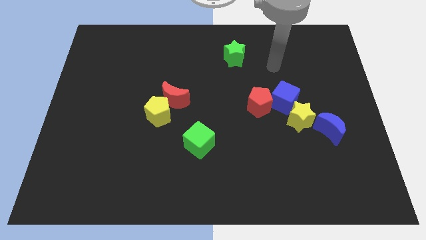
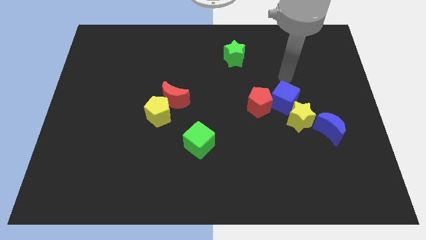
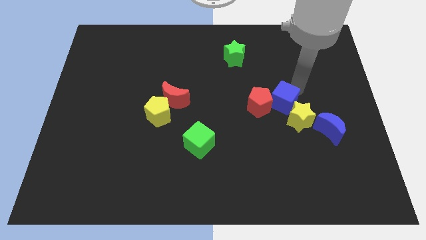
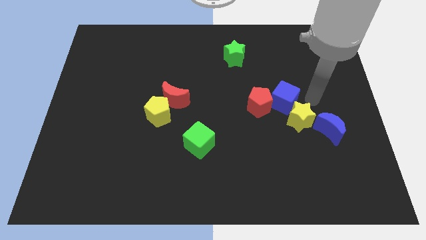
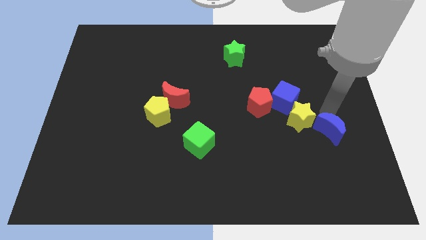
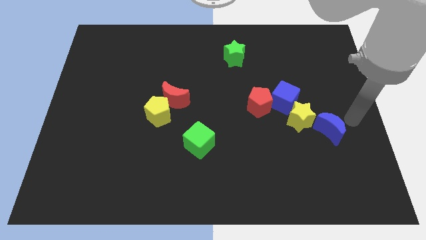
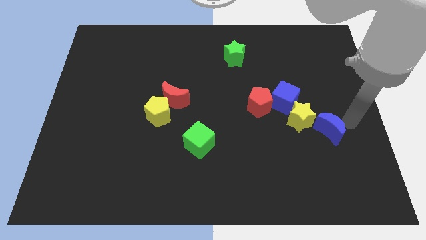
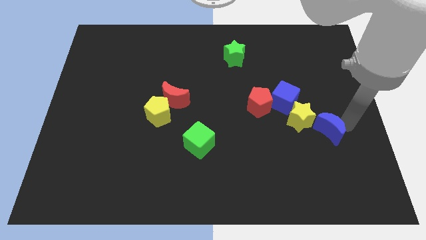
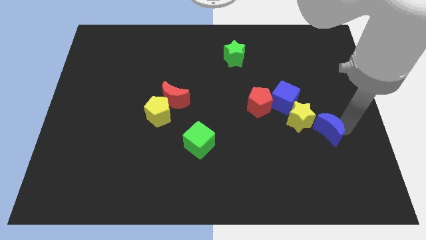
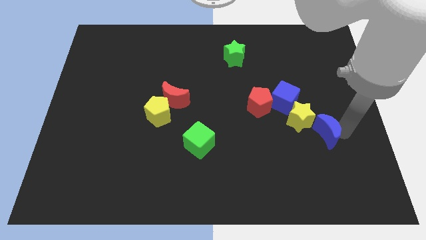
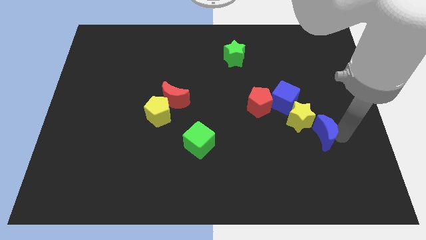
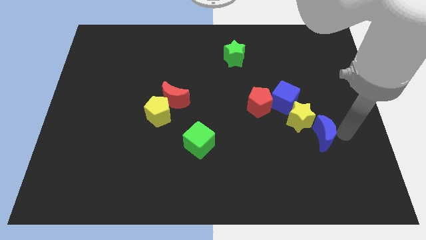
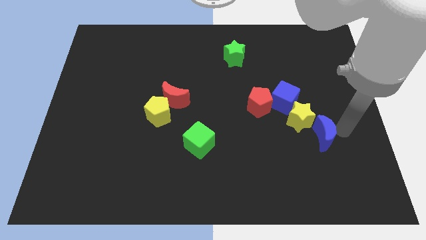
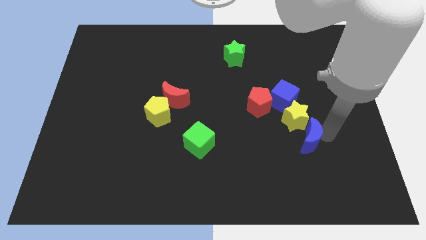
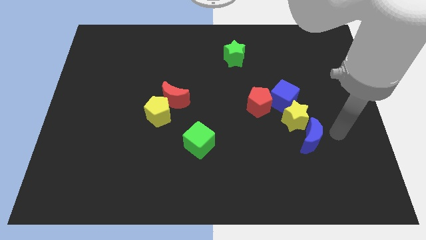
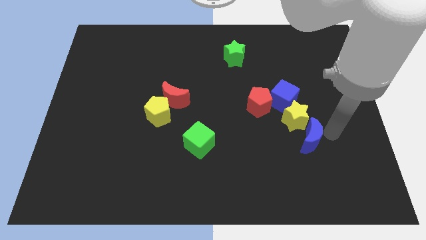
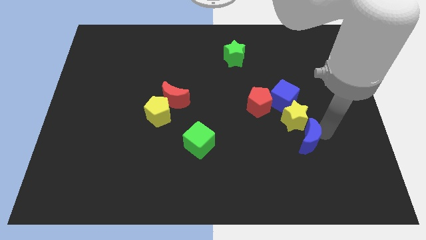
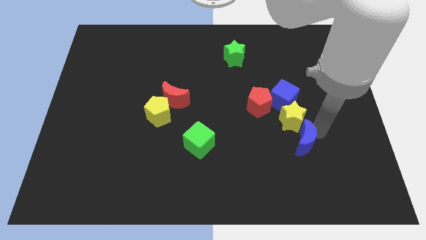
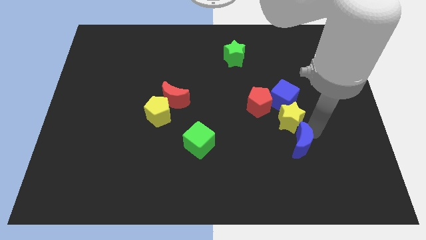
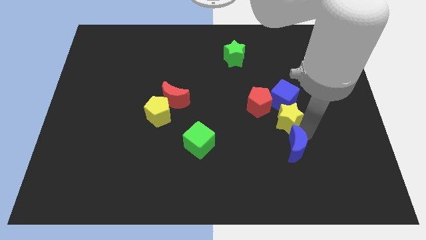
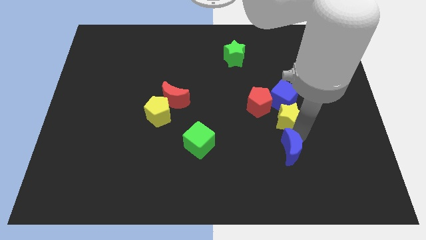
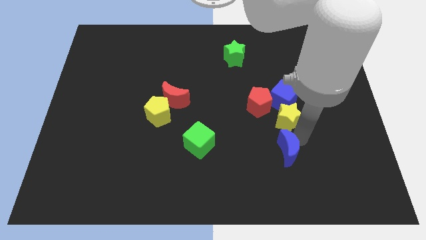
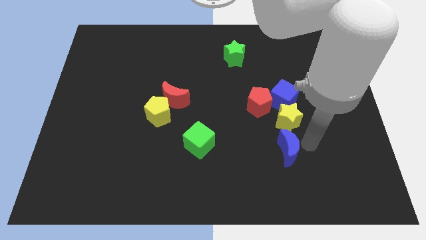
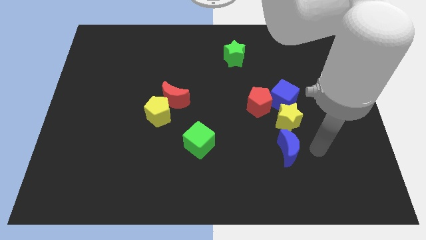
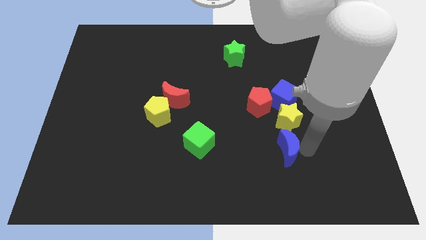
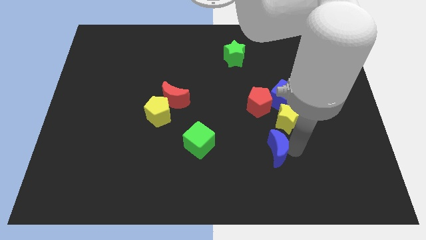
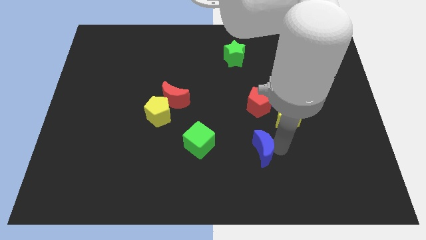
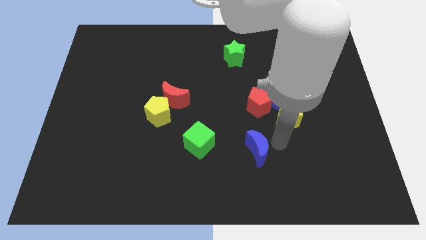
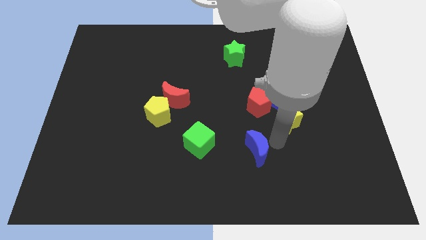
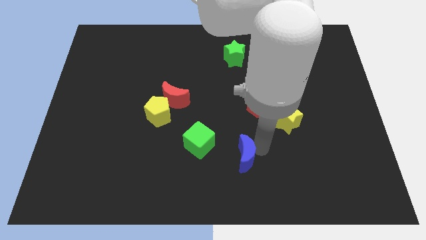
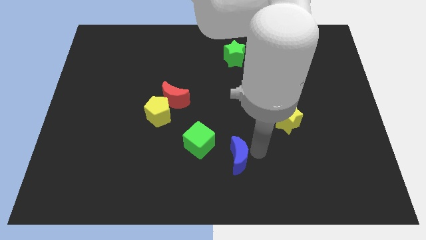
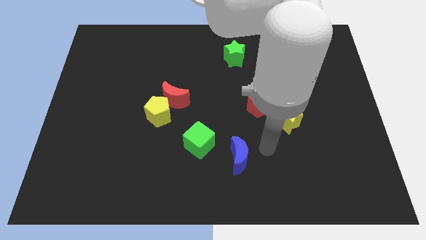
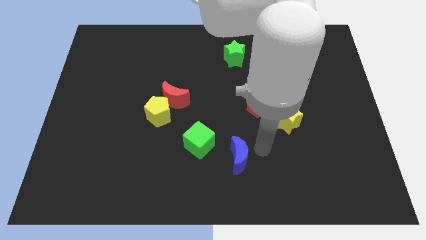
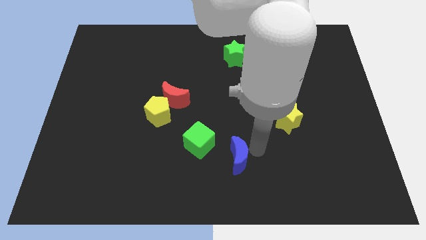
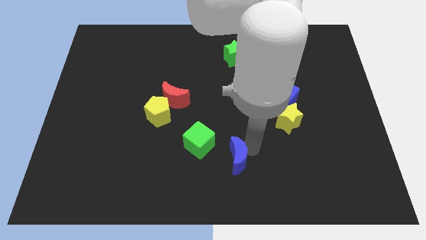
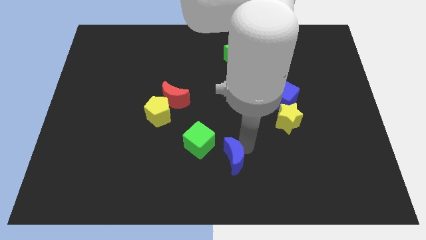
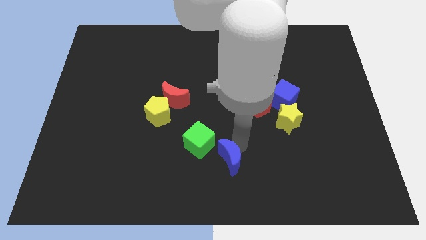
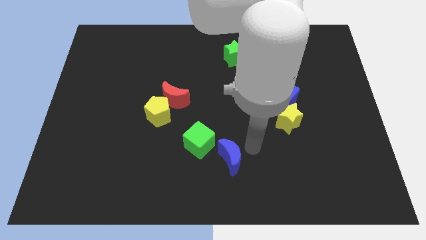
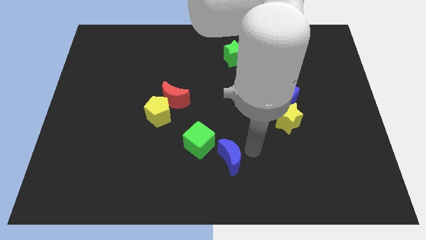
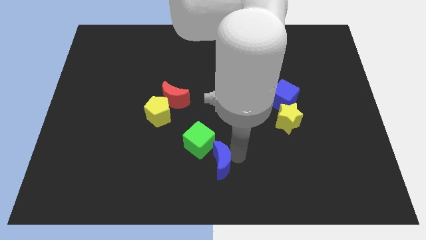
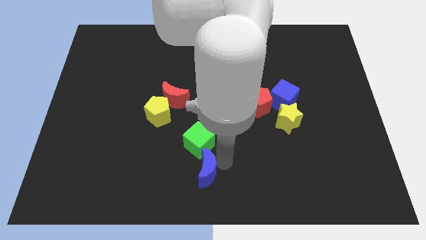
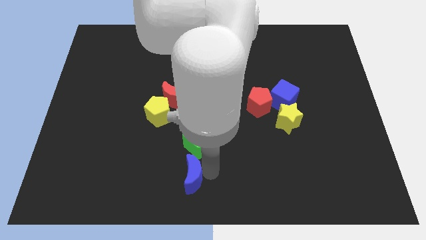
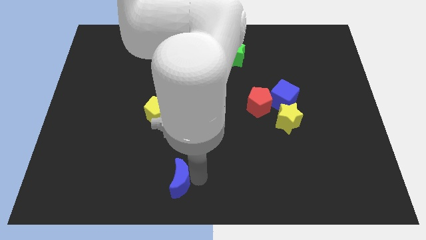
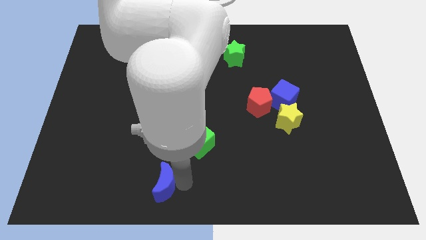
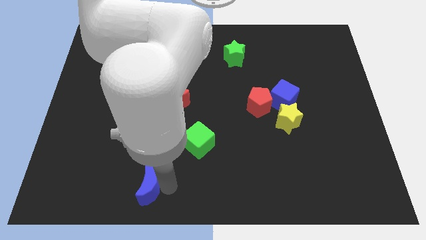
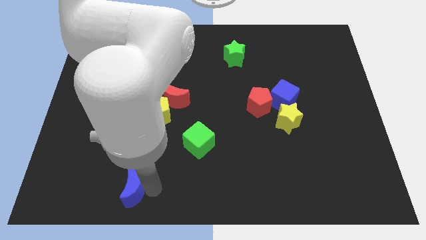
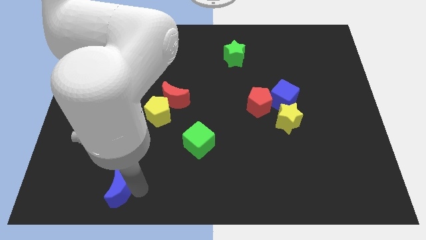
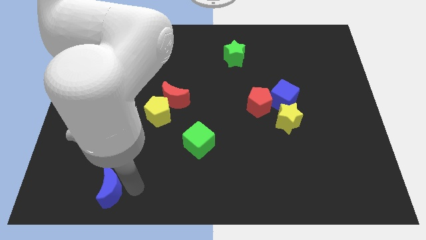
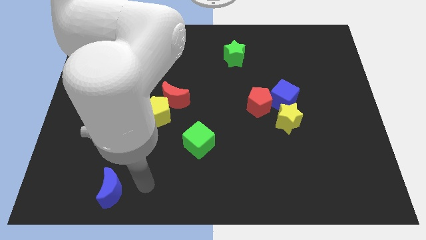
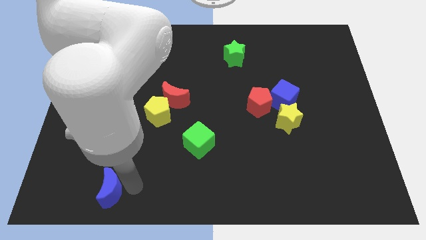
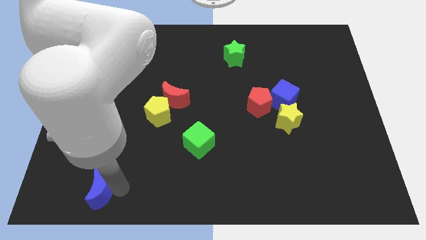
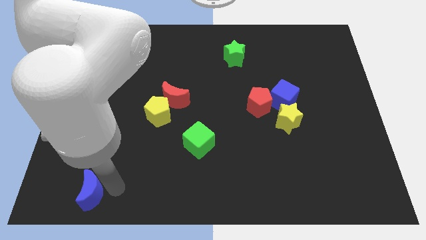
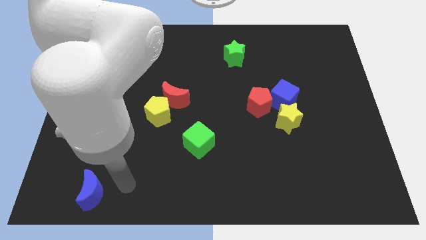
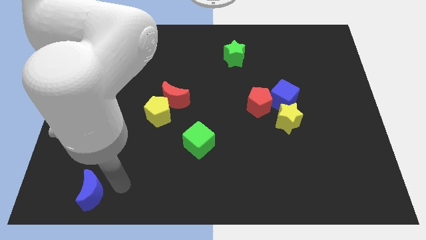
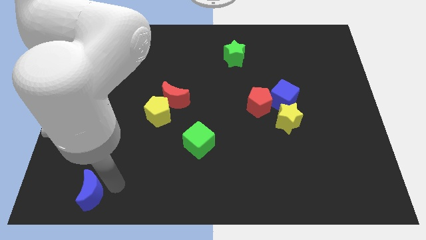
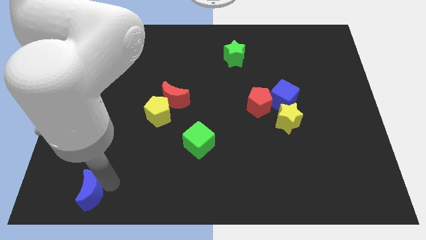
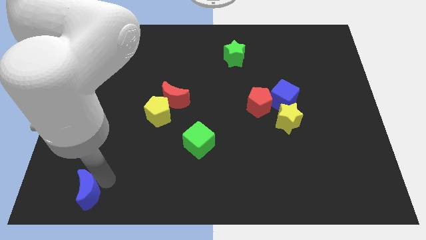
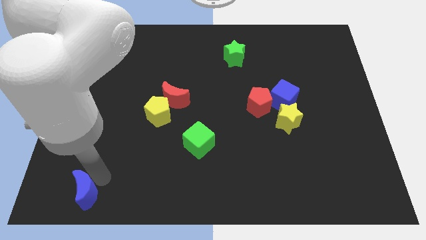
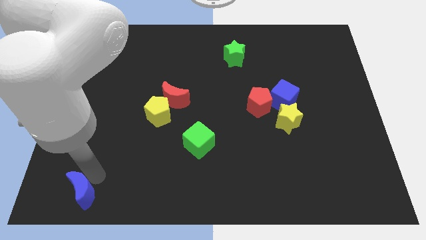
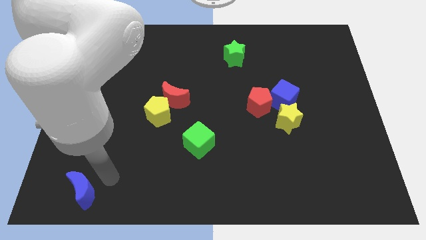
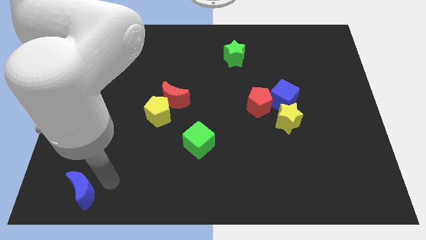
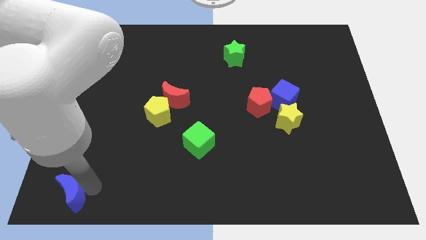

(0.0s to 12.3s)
push the blue moon to the lower left corner
